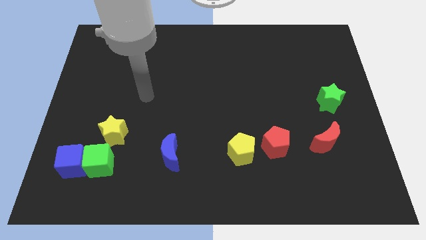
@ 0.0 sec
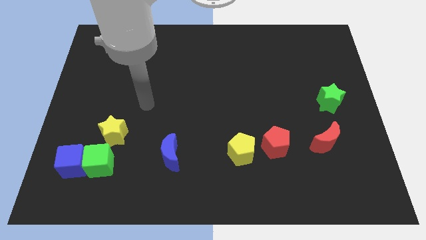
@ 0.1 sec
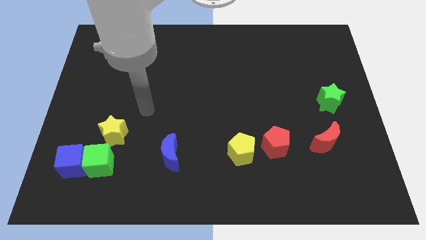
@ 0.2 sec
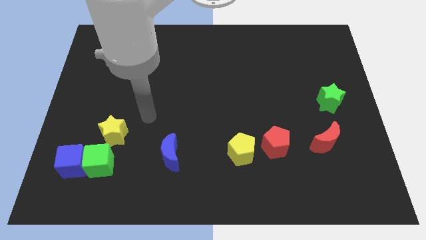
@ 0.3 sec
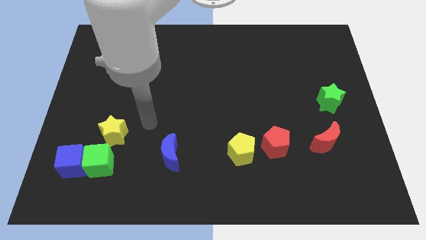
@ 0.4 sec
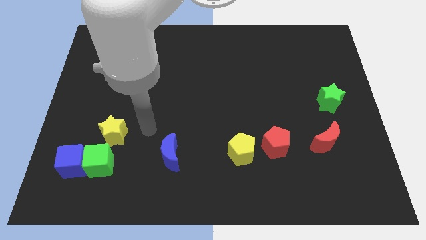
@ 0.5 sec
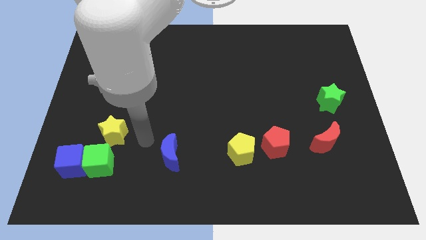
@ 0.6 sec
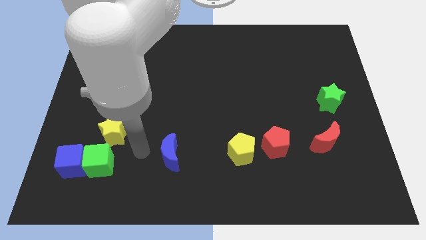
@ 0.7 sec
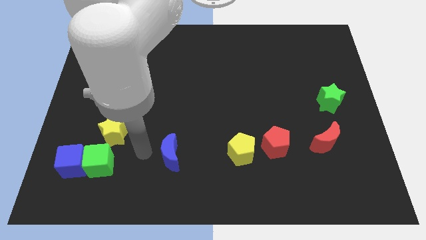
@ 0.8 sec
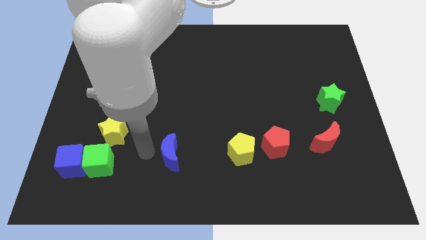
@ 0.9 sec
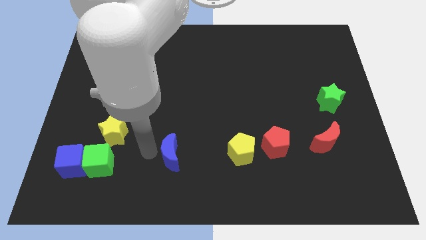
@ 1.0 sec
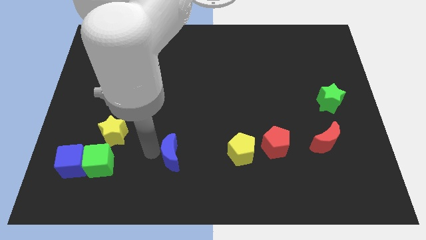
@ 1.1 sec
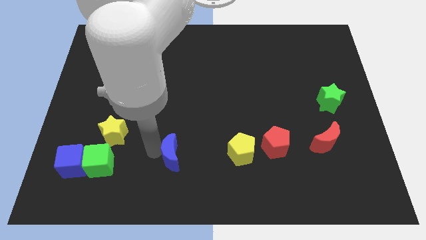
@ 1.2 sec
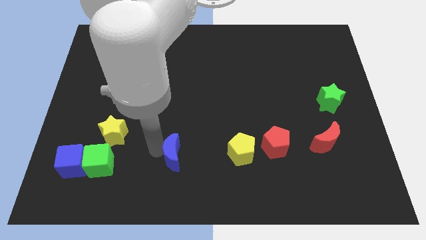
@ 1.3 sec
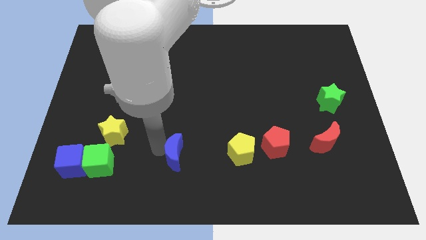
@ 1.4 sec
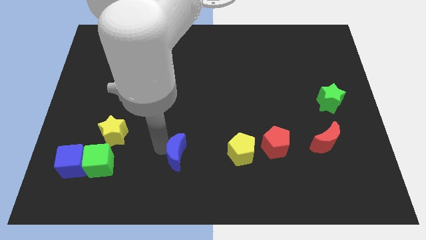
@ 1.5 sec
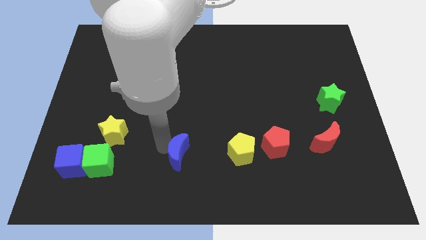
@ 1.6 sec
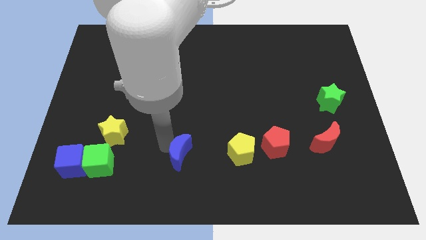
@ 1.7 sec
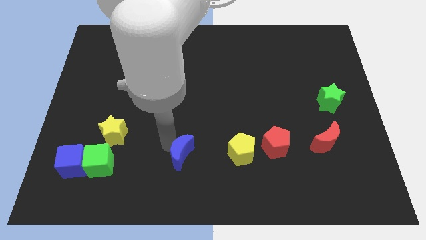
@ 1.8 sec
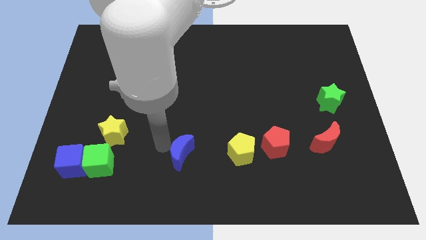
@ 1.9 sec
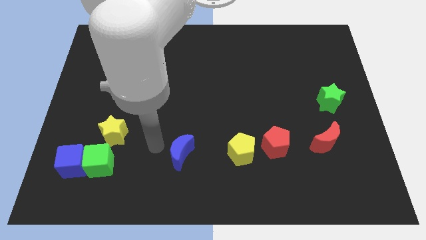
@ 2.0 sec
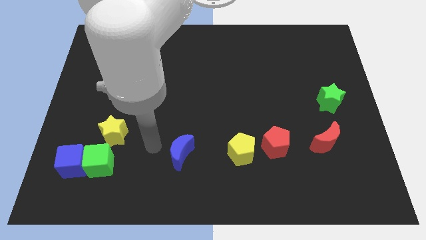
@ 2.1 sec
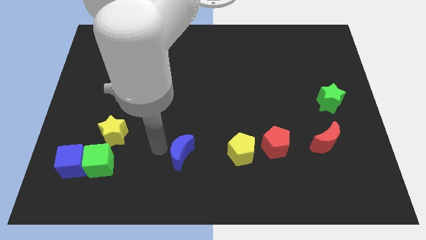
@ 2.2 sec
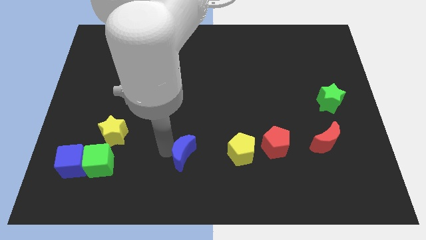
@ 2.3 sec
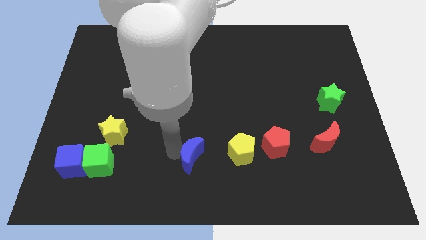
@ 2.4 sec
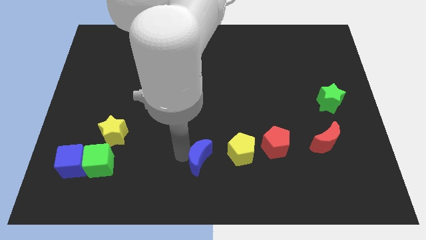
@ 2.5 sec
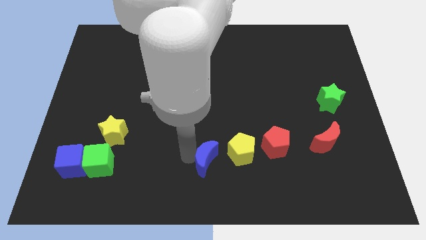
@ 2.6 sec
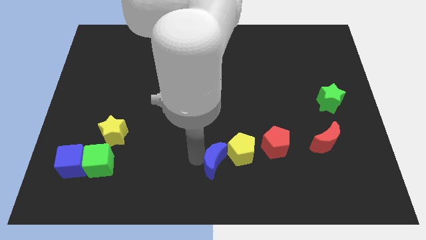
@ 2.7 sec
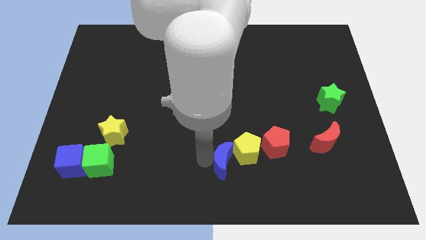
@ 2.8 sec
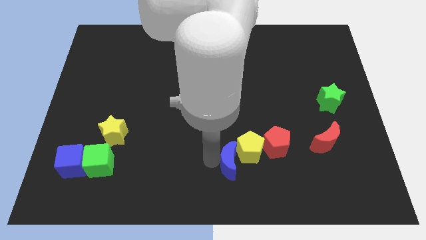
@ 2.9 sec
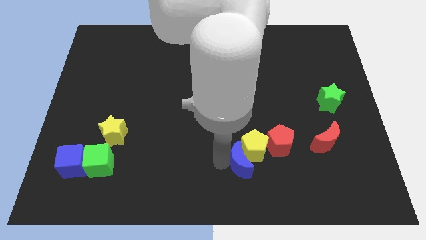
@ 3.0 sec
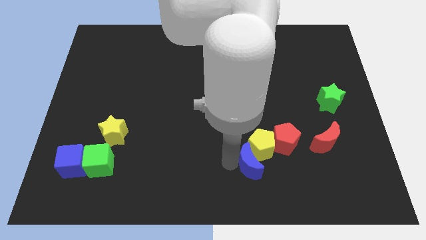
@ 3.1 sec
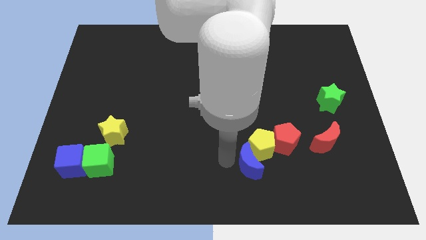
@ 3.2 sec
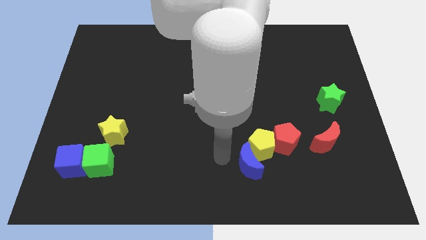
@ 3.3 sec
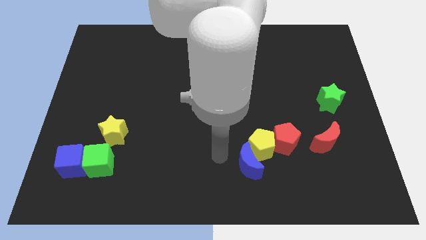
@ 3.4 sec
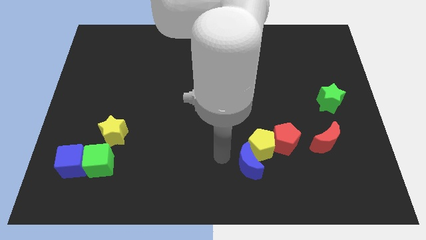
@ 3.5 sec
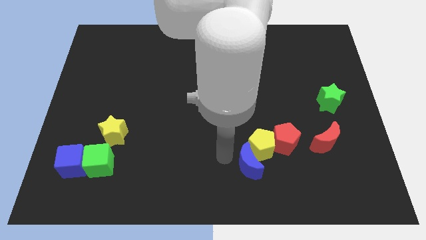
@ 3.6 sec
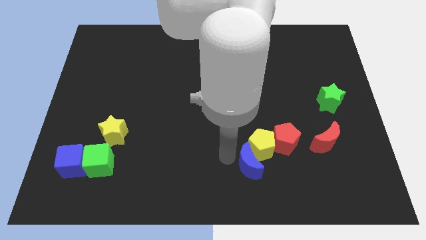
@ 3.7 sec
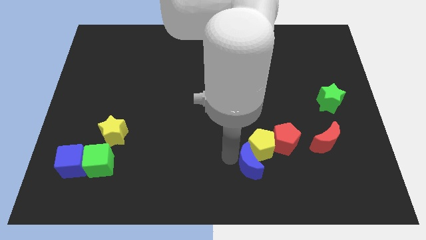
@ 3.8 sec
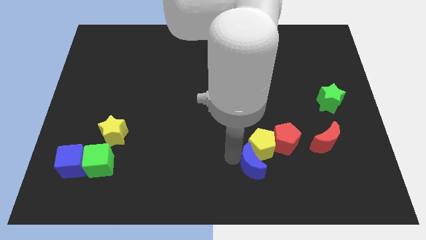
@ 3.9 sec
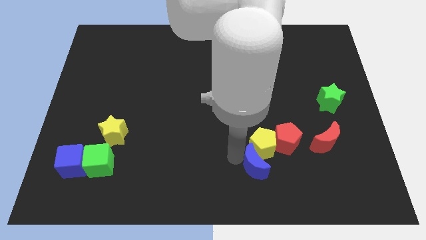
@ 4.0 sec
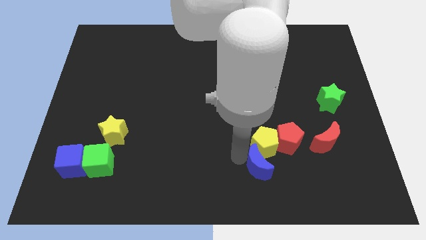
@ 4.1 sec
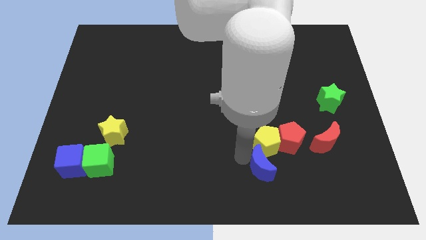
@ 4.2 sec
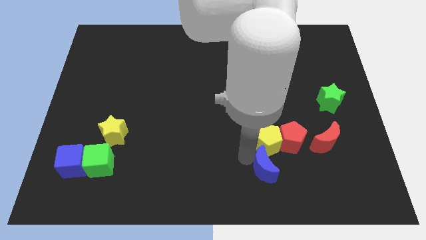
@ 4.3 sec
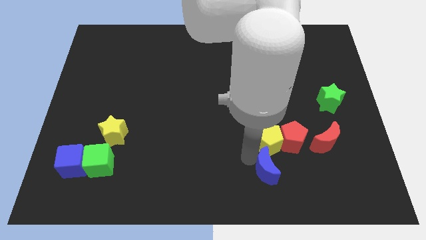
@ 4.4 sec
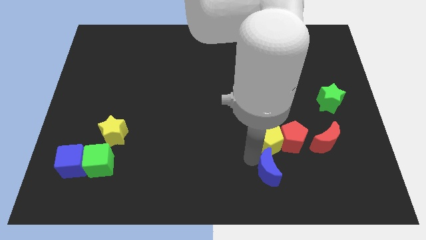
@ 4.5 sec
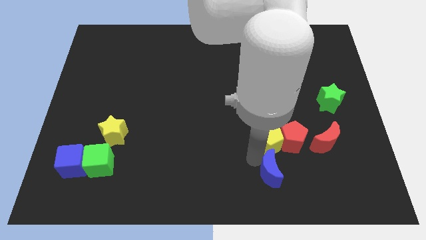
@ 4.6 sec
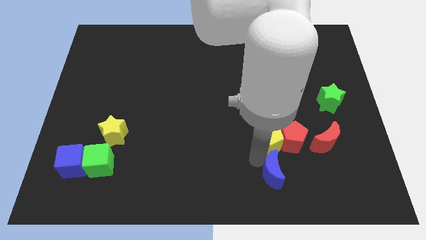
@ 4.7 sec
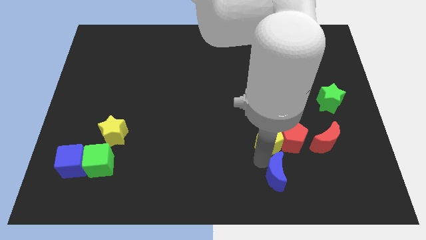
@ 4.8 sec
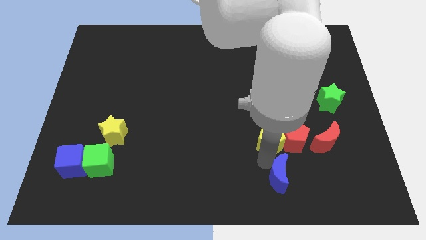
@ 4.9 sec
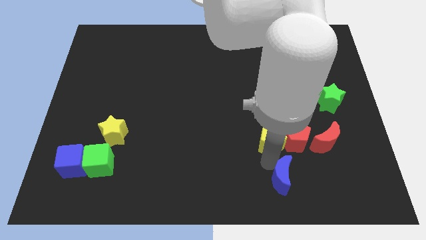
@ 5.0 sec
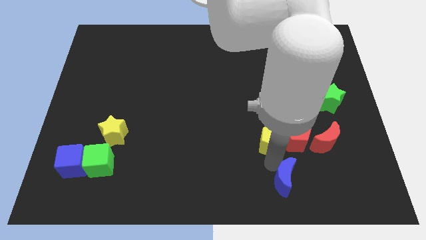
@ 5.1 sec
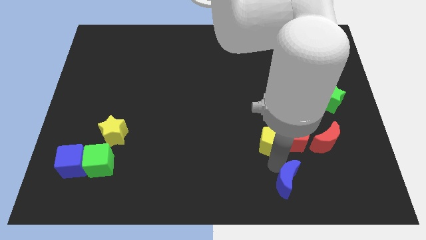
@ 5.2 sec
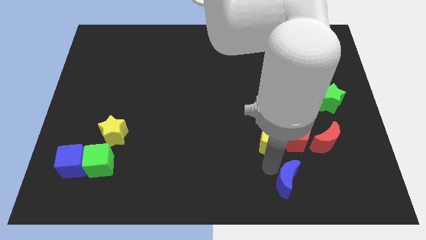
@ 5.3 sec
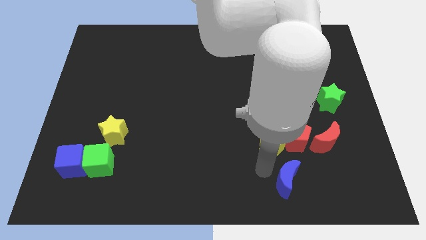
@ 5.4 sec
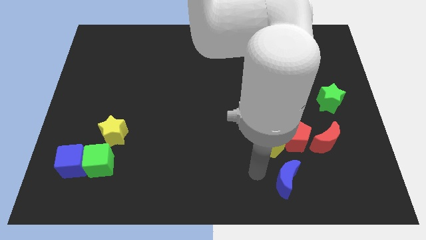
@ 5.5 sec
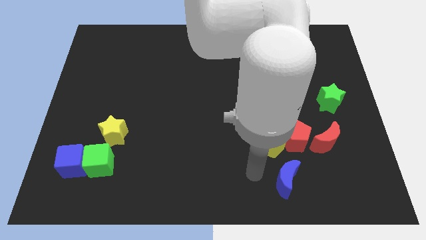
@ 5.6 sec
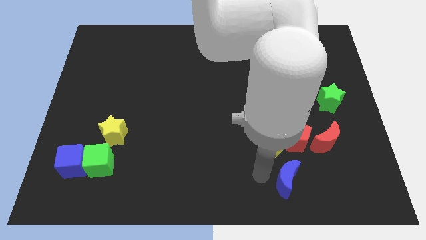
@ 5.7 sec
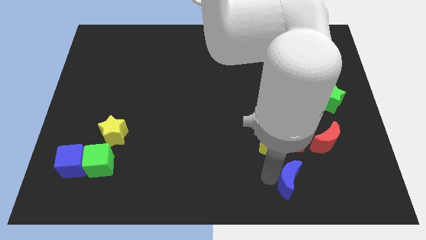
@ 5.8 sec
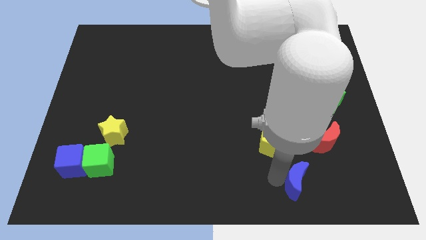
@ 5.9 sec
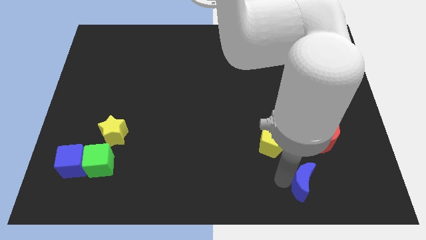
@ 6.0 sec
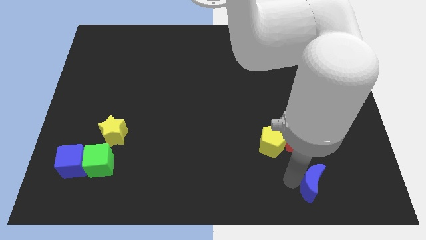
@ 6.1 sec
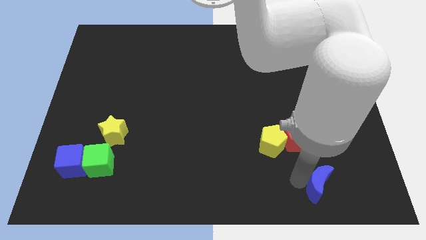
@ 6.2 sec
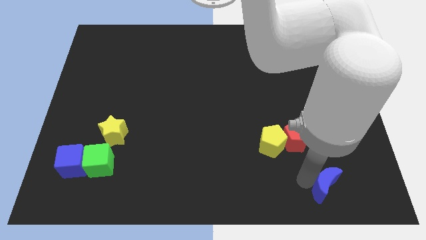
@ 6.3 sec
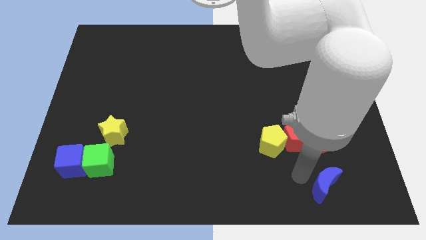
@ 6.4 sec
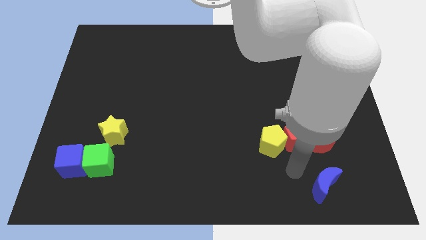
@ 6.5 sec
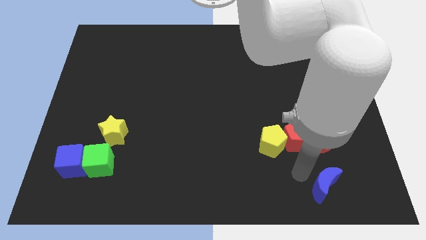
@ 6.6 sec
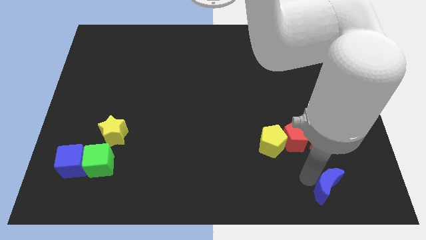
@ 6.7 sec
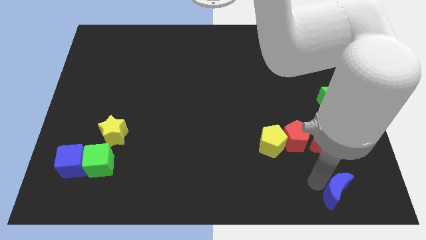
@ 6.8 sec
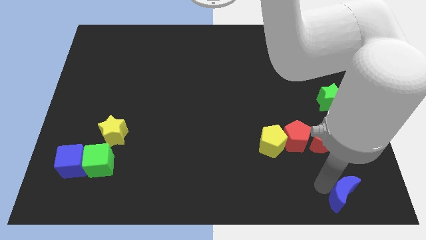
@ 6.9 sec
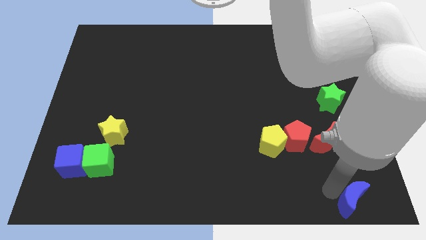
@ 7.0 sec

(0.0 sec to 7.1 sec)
slide the blue moon to the lower right corner
